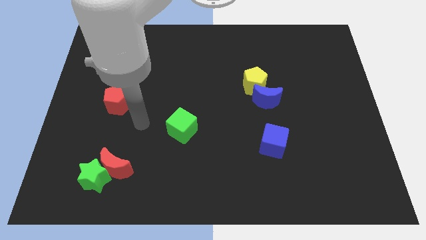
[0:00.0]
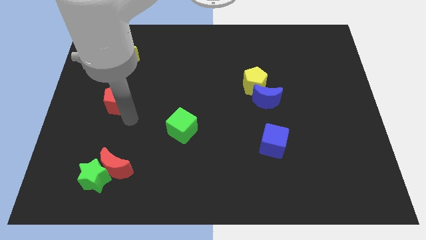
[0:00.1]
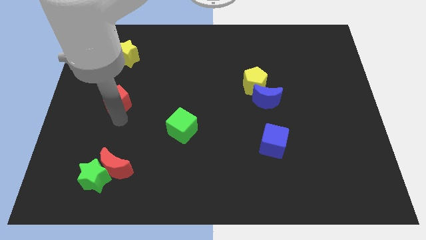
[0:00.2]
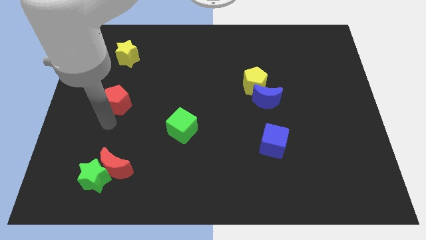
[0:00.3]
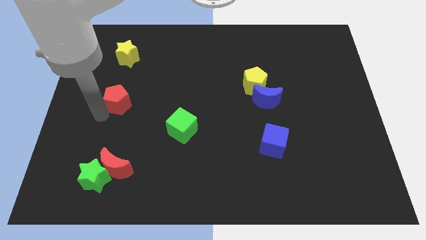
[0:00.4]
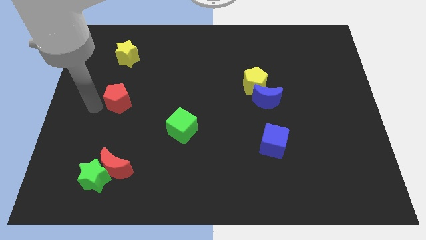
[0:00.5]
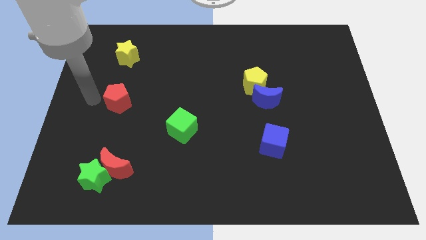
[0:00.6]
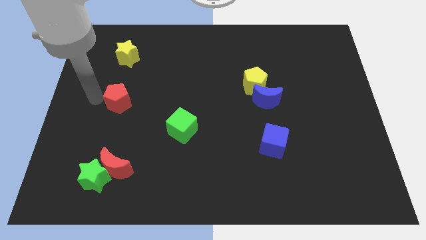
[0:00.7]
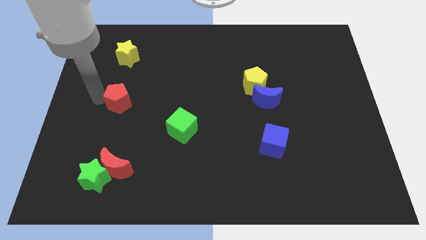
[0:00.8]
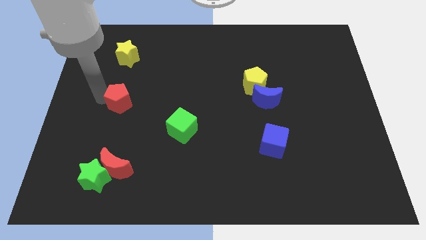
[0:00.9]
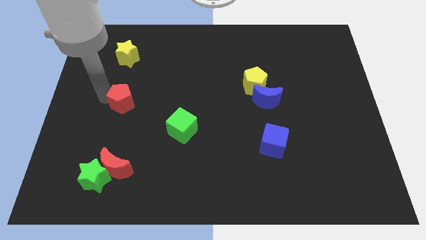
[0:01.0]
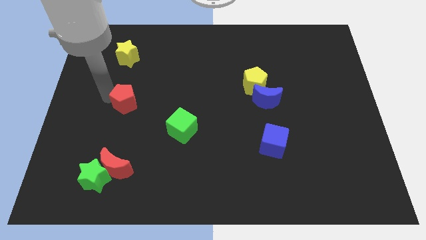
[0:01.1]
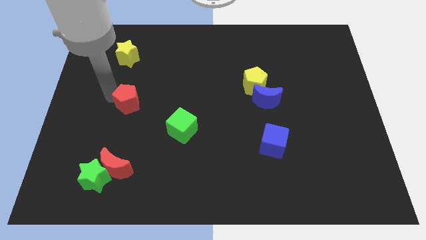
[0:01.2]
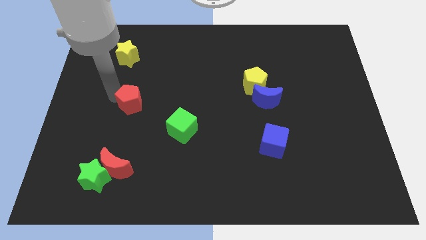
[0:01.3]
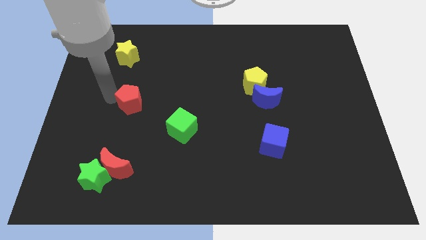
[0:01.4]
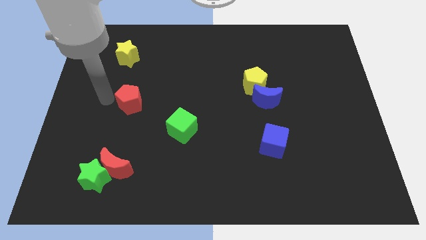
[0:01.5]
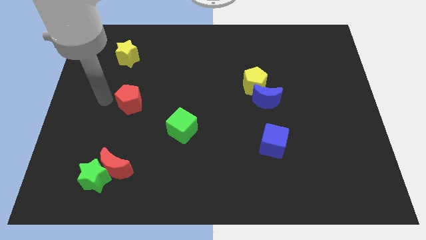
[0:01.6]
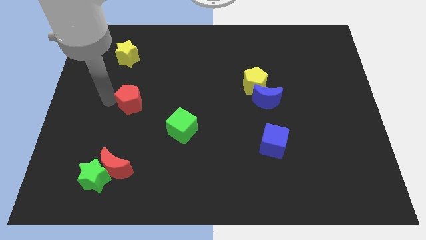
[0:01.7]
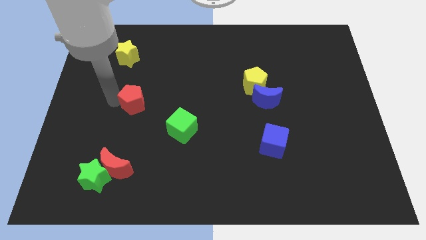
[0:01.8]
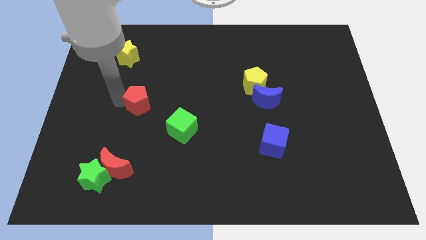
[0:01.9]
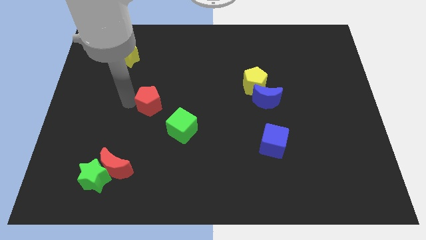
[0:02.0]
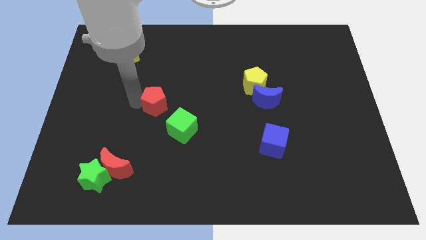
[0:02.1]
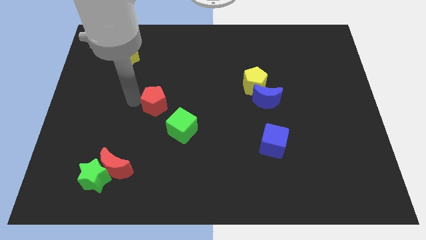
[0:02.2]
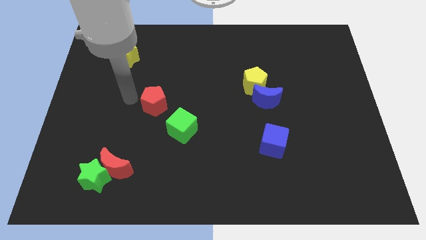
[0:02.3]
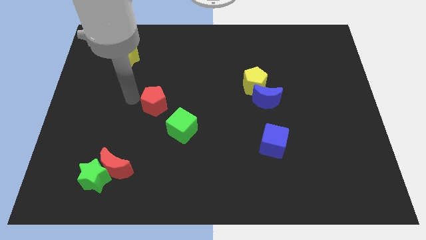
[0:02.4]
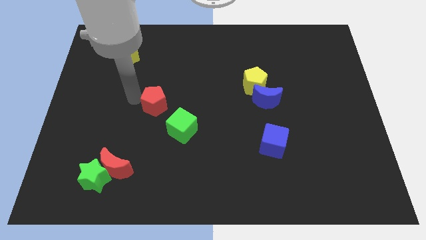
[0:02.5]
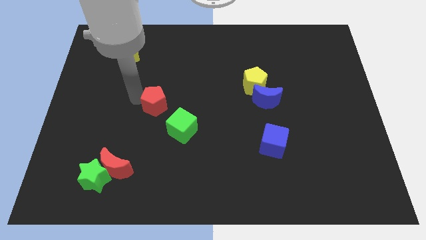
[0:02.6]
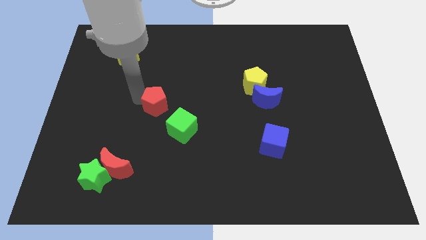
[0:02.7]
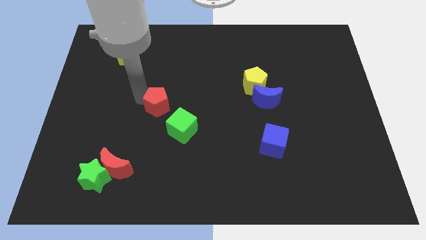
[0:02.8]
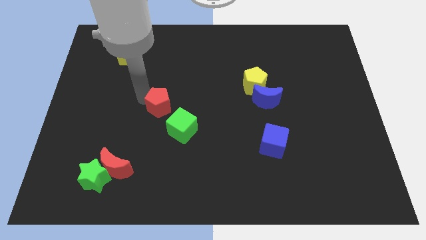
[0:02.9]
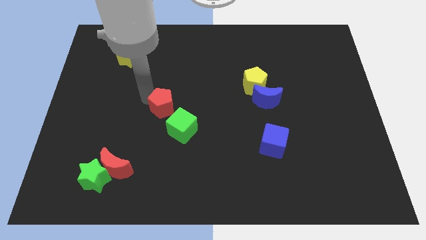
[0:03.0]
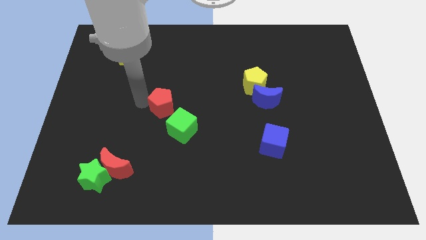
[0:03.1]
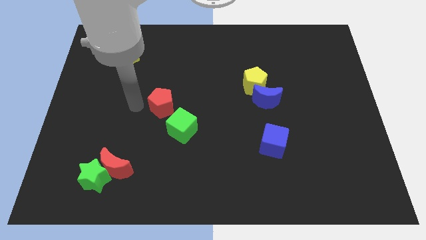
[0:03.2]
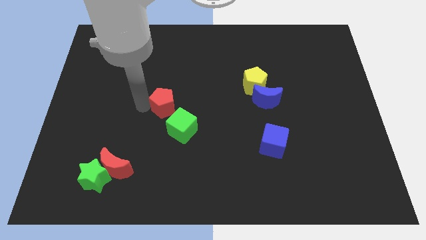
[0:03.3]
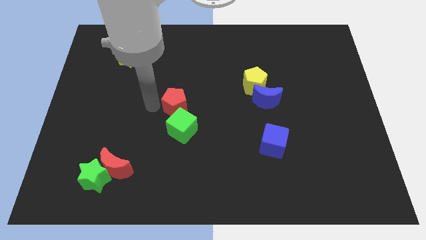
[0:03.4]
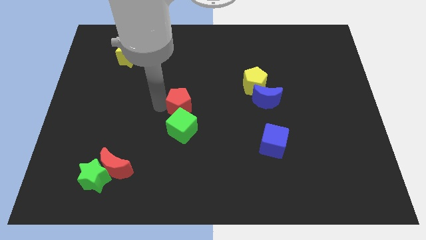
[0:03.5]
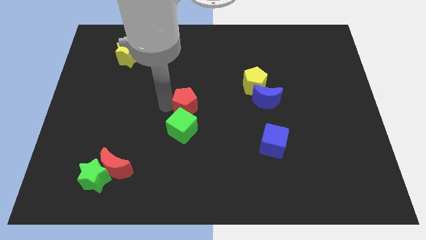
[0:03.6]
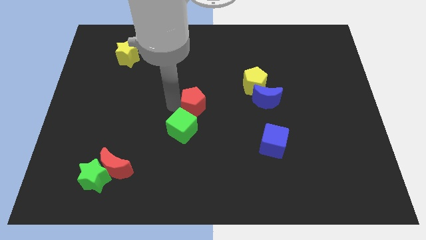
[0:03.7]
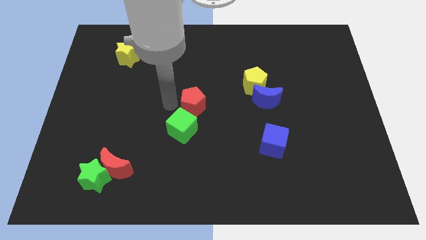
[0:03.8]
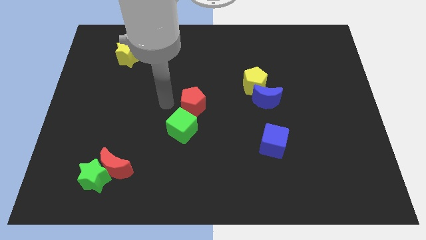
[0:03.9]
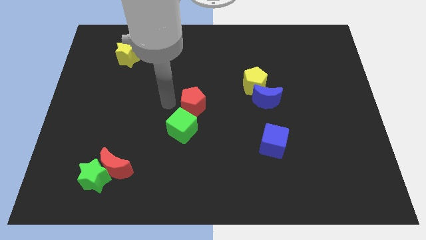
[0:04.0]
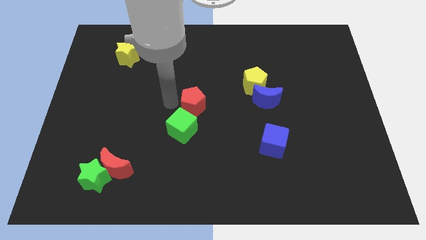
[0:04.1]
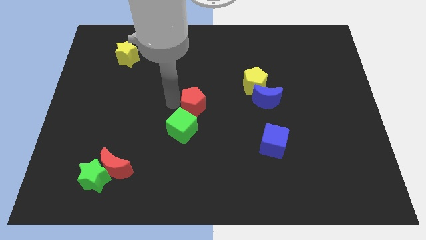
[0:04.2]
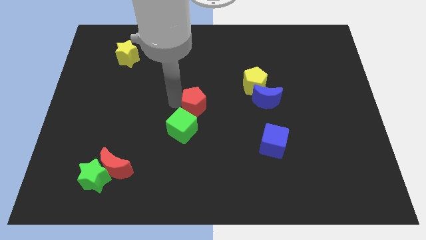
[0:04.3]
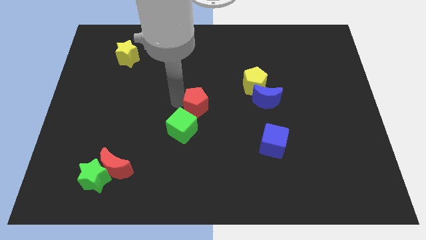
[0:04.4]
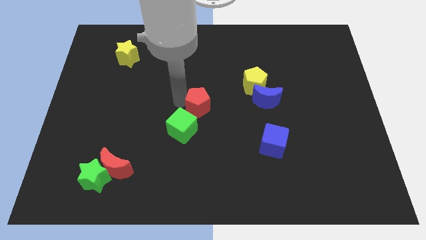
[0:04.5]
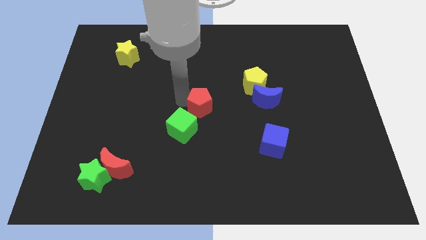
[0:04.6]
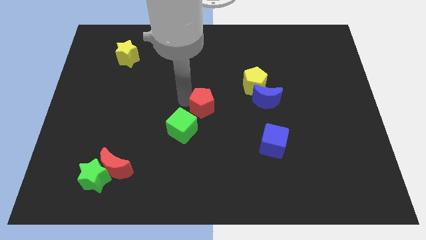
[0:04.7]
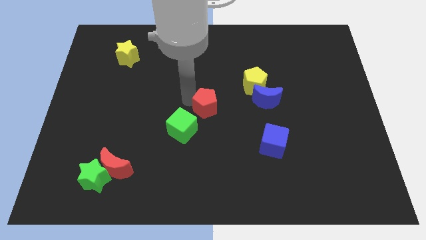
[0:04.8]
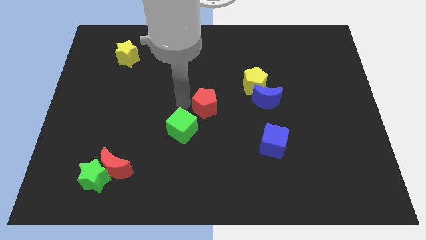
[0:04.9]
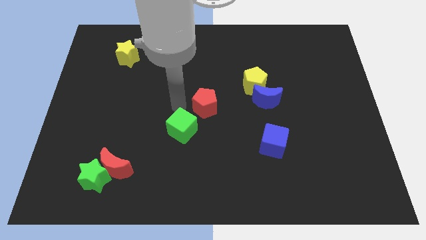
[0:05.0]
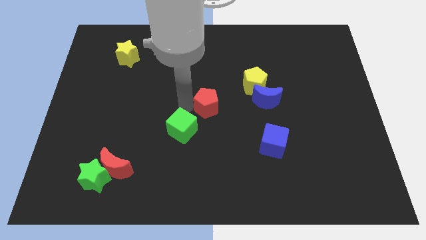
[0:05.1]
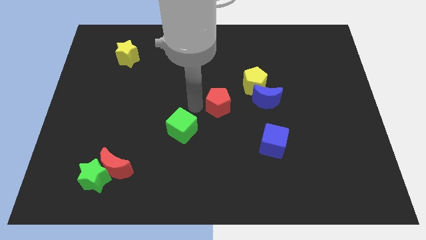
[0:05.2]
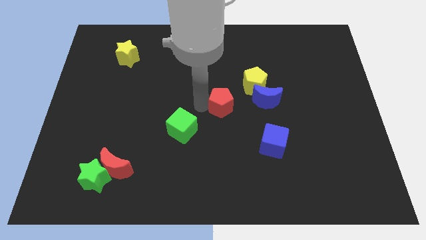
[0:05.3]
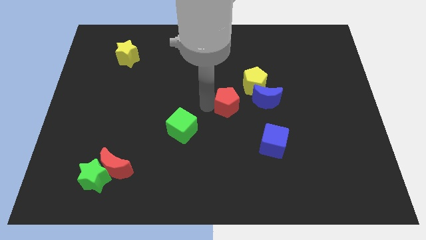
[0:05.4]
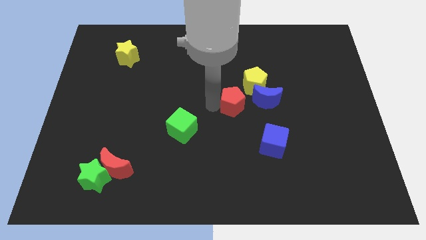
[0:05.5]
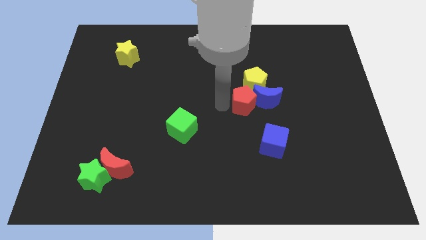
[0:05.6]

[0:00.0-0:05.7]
move the red pentagon close to the blue moon

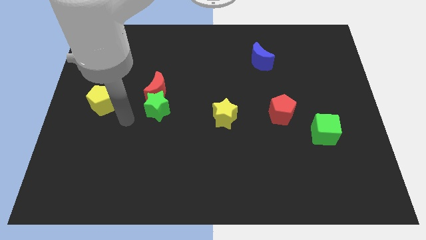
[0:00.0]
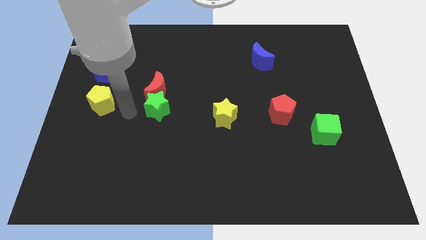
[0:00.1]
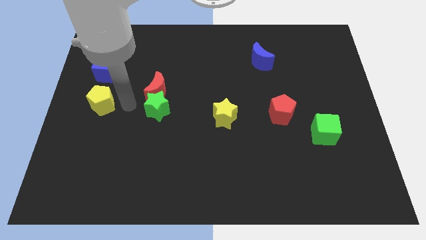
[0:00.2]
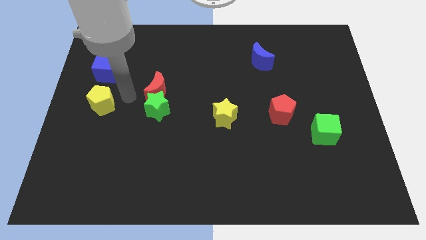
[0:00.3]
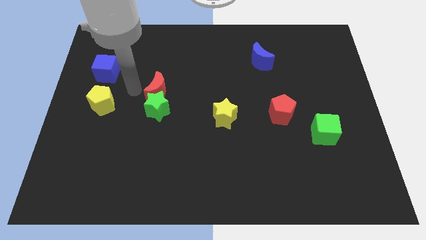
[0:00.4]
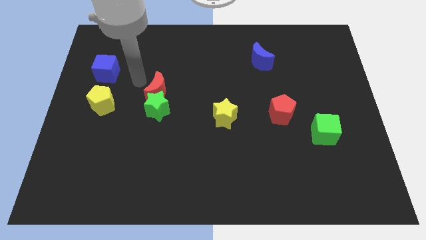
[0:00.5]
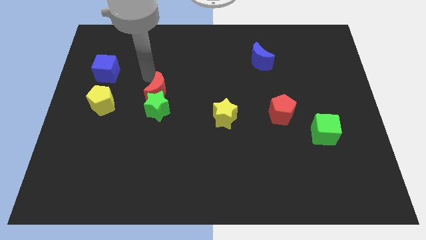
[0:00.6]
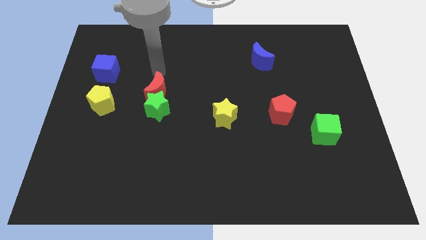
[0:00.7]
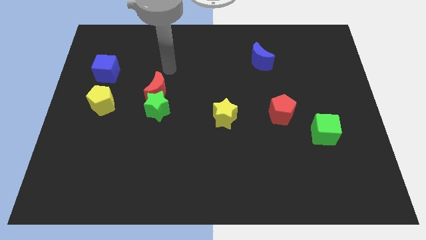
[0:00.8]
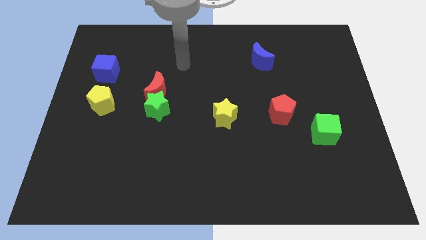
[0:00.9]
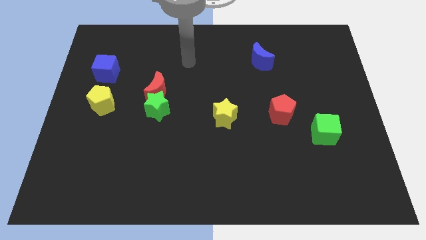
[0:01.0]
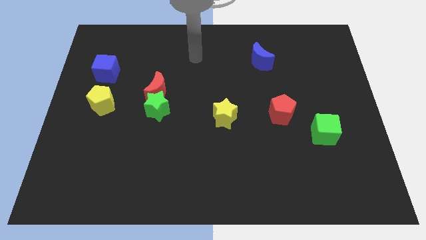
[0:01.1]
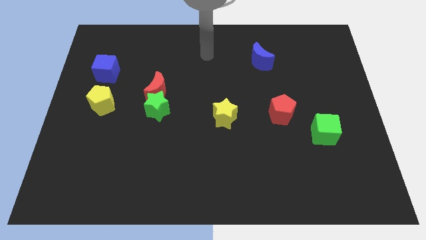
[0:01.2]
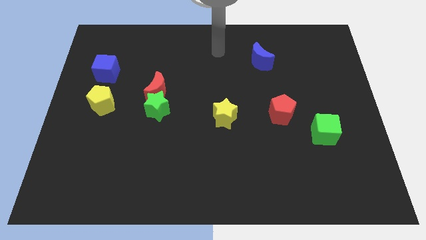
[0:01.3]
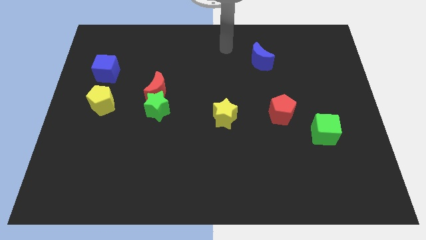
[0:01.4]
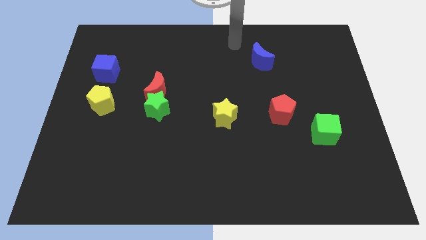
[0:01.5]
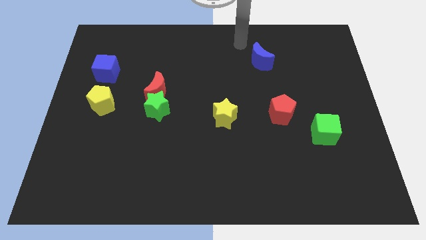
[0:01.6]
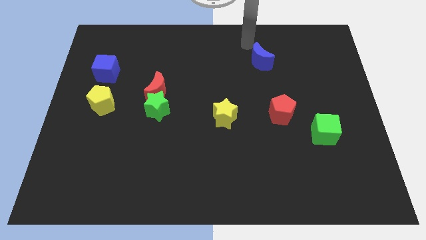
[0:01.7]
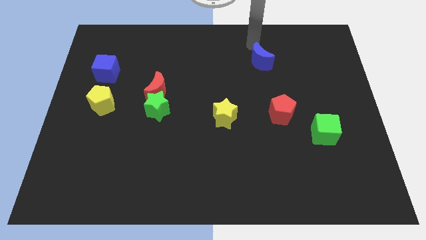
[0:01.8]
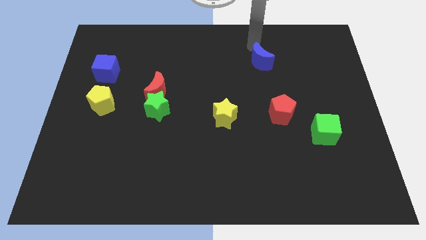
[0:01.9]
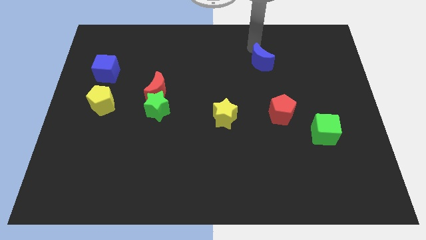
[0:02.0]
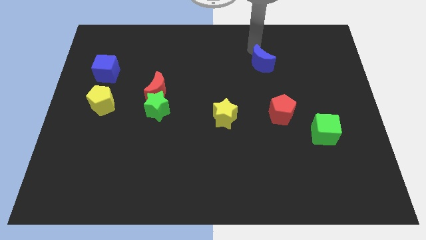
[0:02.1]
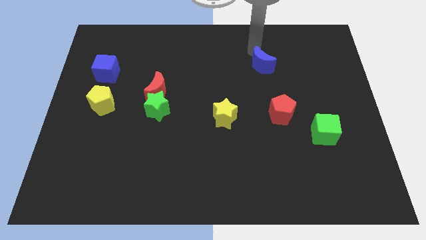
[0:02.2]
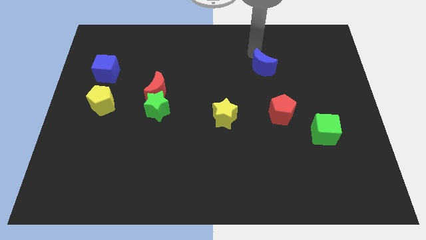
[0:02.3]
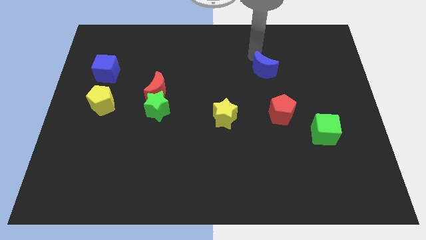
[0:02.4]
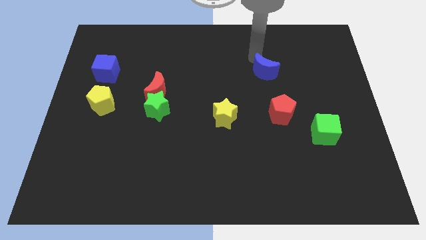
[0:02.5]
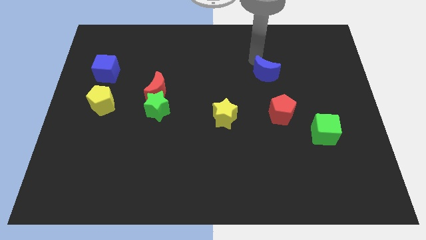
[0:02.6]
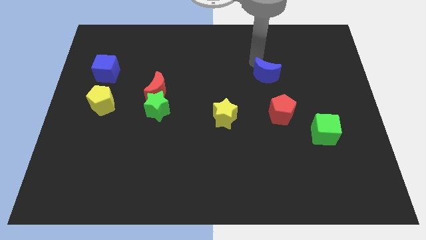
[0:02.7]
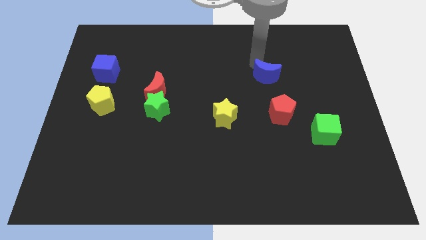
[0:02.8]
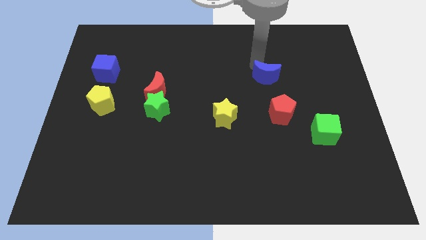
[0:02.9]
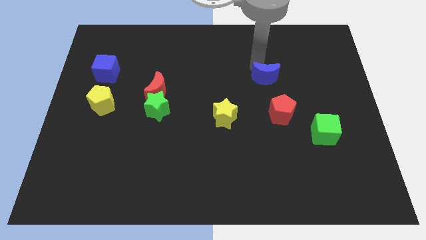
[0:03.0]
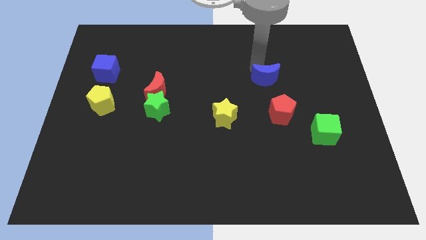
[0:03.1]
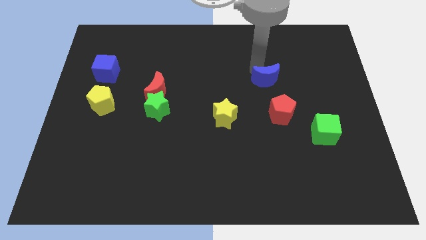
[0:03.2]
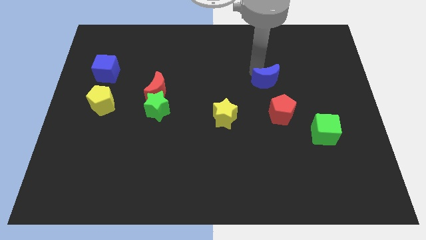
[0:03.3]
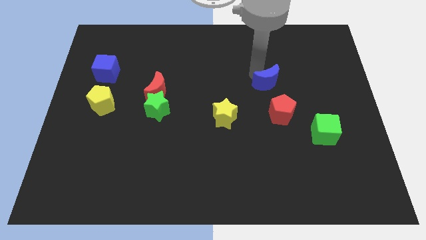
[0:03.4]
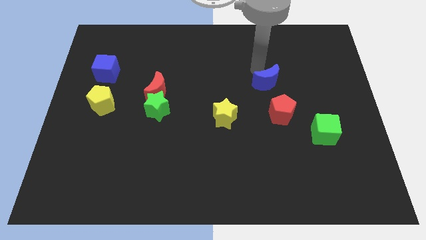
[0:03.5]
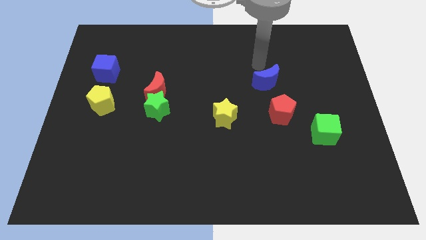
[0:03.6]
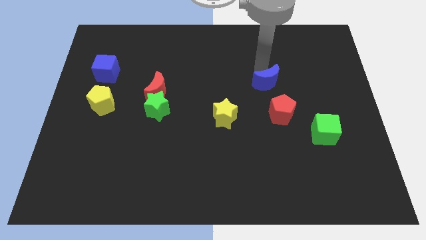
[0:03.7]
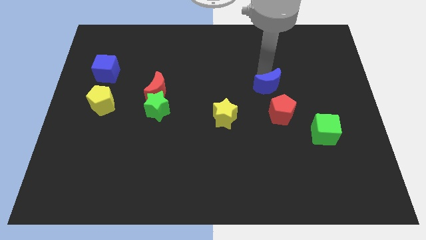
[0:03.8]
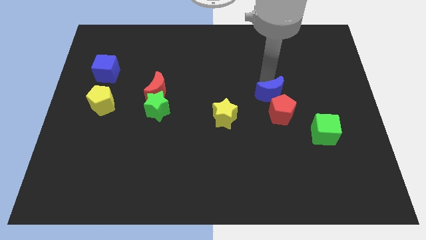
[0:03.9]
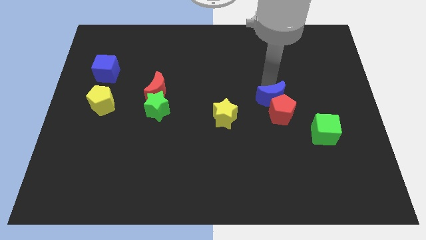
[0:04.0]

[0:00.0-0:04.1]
slide the blue moon next to the red pentagon
